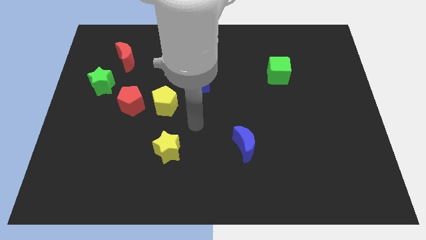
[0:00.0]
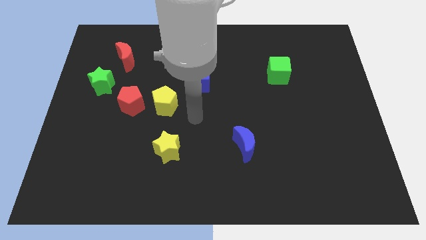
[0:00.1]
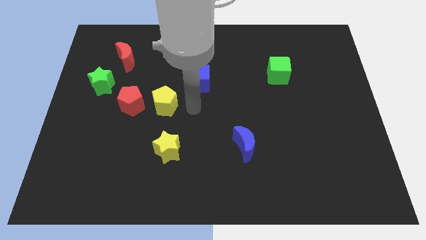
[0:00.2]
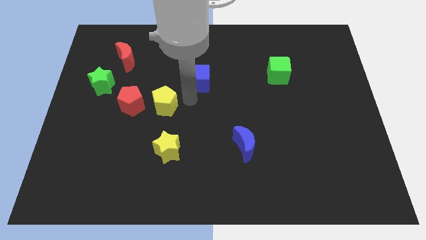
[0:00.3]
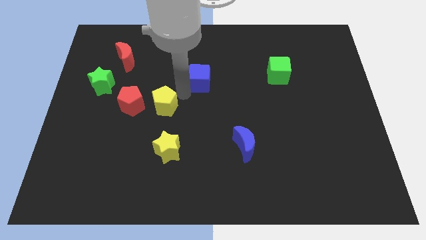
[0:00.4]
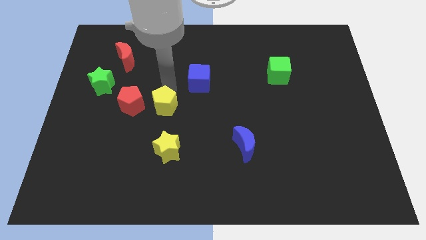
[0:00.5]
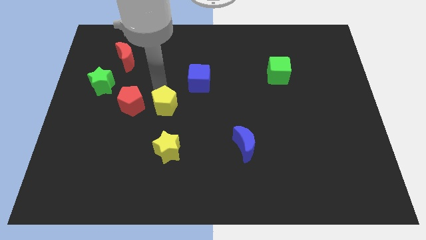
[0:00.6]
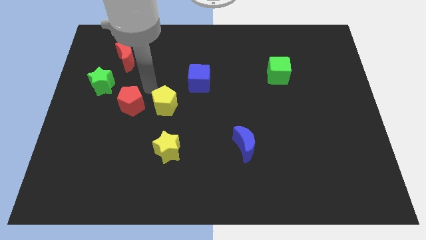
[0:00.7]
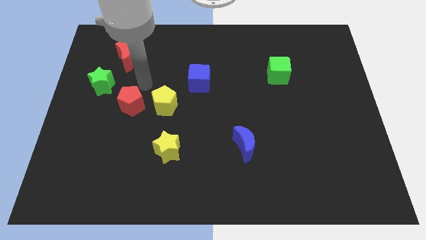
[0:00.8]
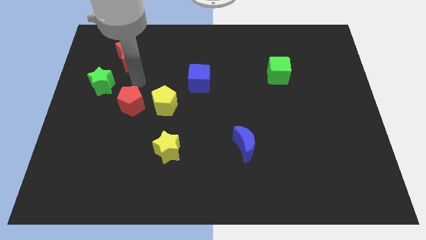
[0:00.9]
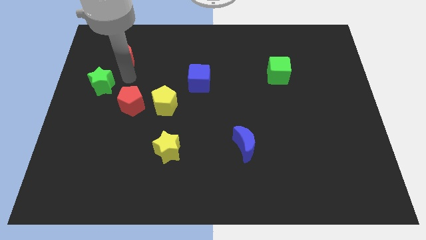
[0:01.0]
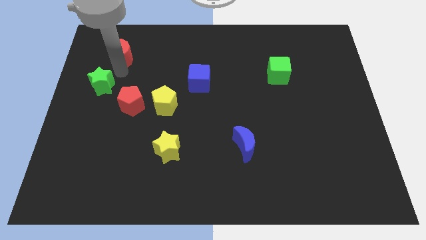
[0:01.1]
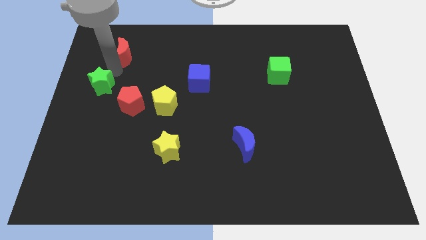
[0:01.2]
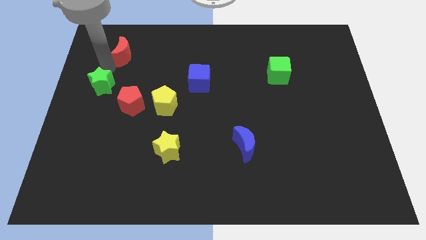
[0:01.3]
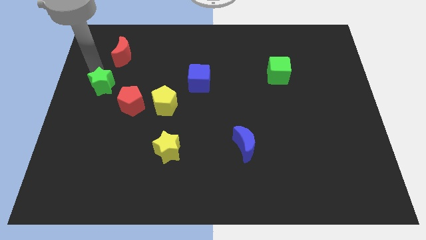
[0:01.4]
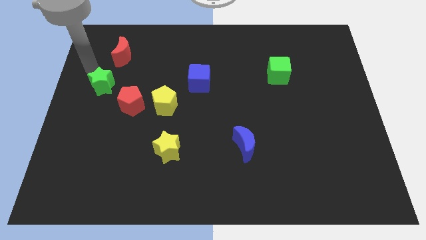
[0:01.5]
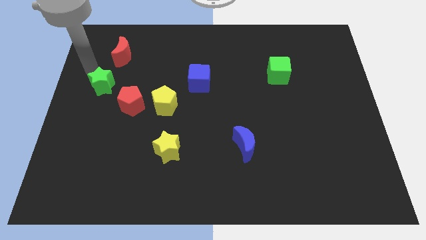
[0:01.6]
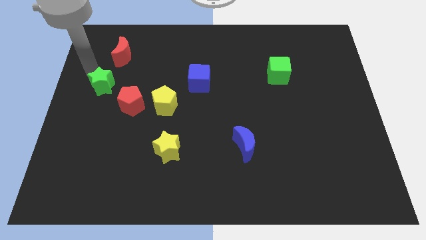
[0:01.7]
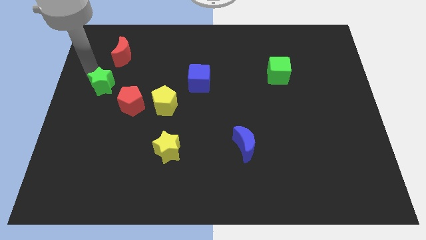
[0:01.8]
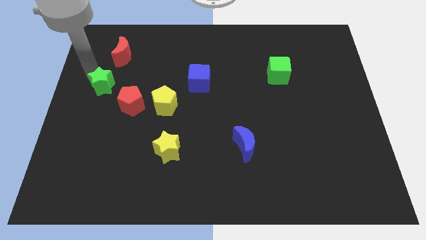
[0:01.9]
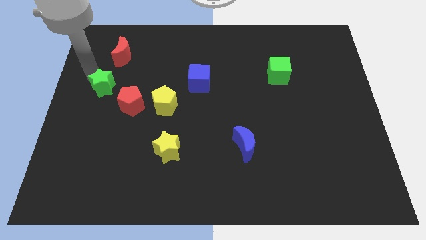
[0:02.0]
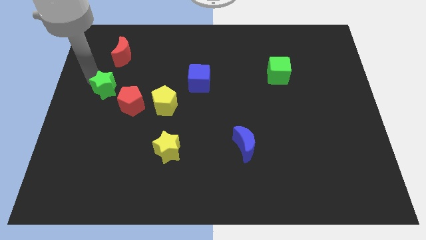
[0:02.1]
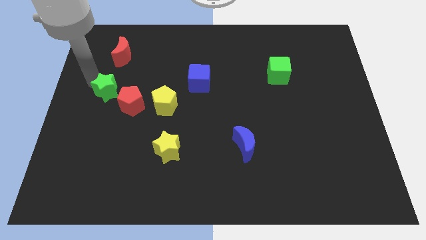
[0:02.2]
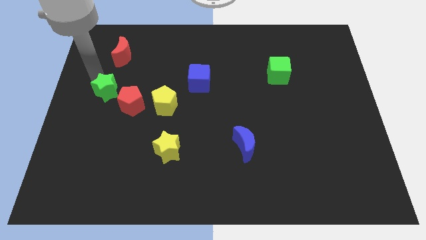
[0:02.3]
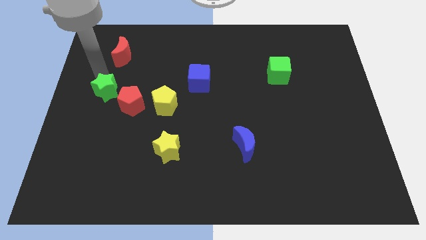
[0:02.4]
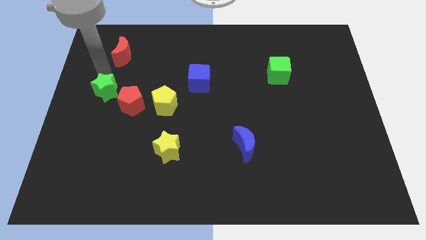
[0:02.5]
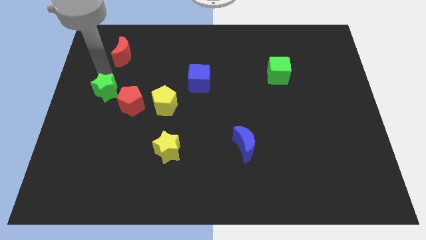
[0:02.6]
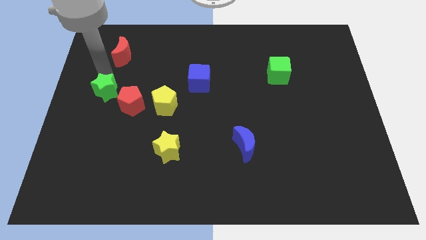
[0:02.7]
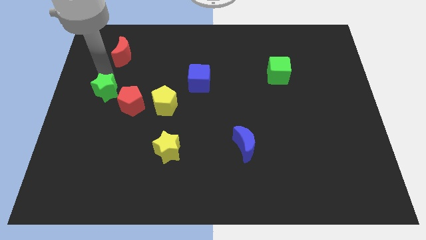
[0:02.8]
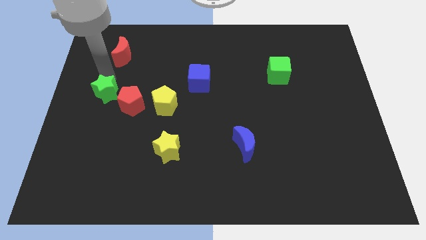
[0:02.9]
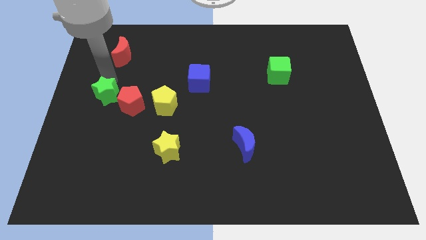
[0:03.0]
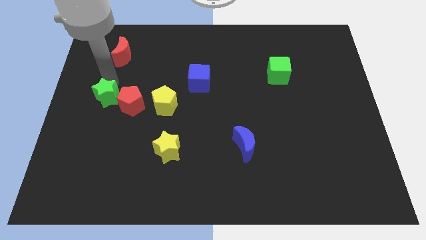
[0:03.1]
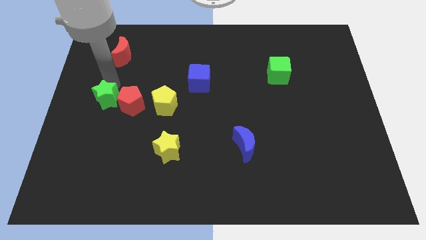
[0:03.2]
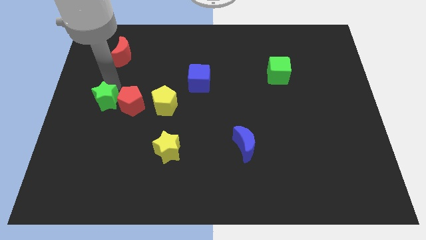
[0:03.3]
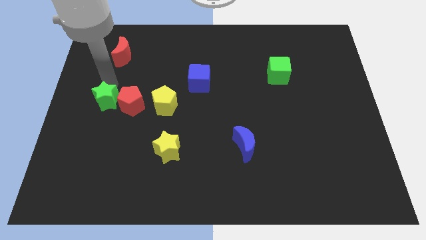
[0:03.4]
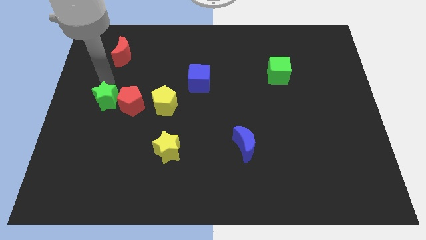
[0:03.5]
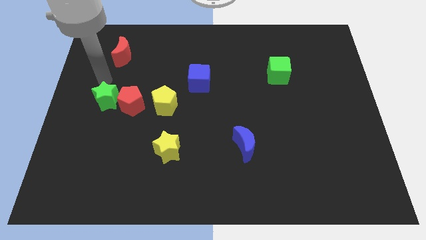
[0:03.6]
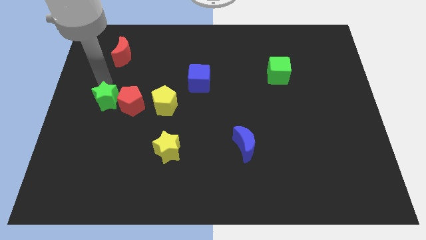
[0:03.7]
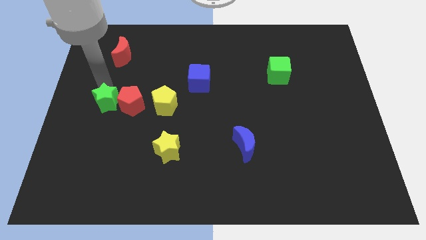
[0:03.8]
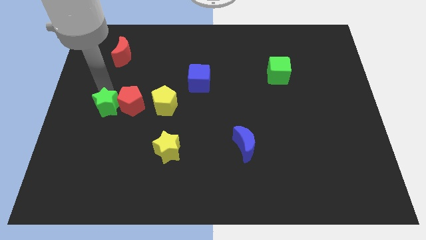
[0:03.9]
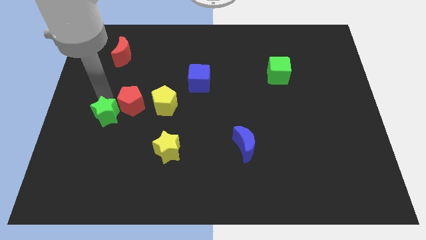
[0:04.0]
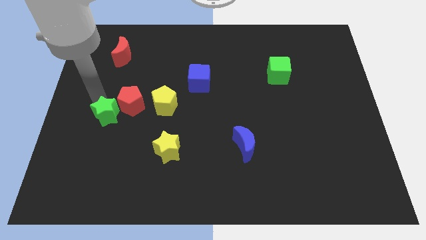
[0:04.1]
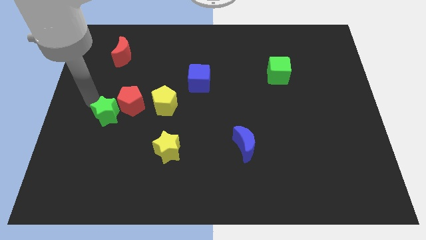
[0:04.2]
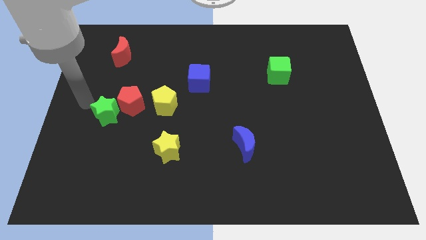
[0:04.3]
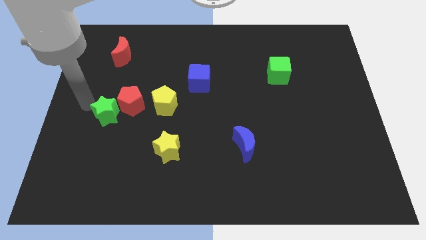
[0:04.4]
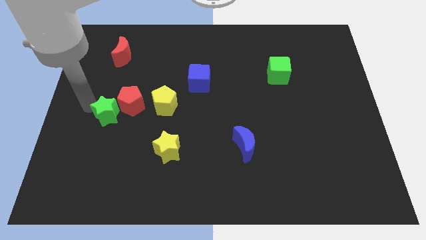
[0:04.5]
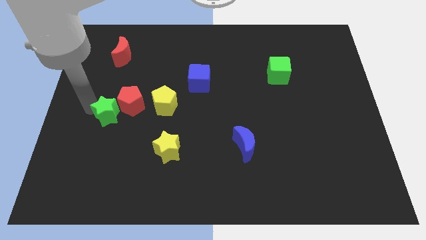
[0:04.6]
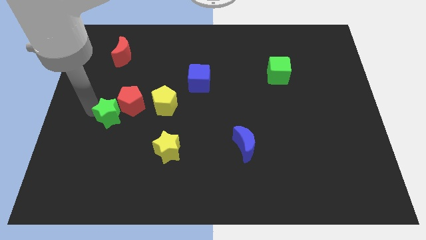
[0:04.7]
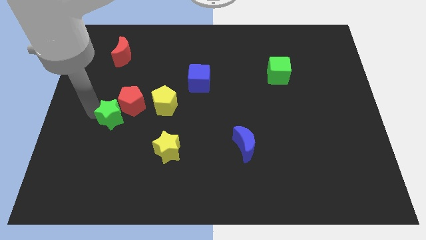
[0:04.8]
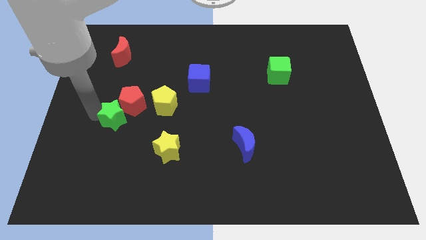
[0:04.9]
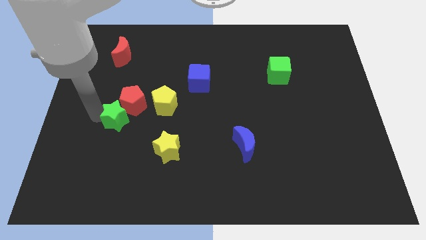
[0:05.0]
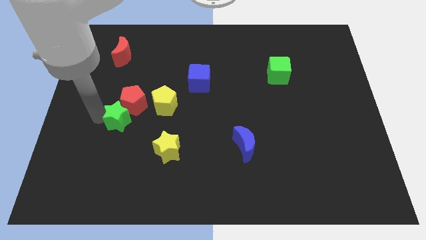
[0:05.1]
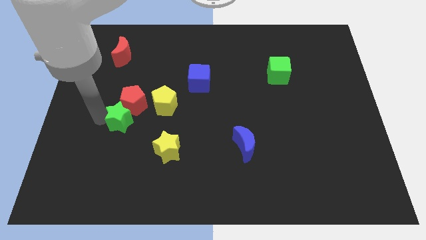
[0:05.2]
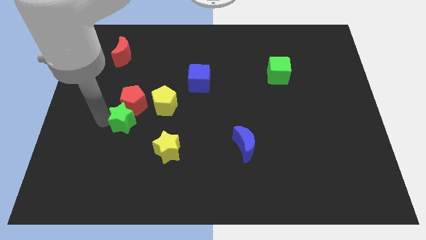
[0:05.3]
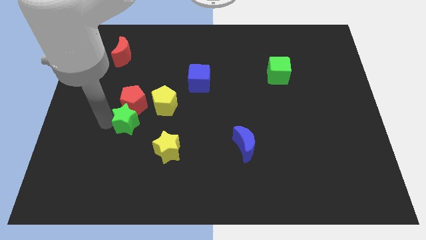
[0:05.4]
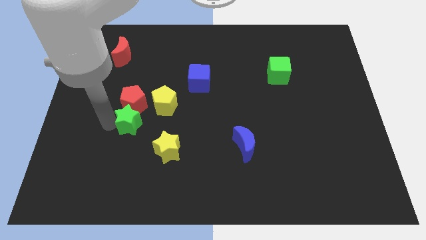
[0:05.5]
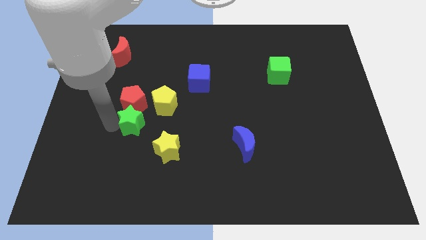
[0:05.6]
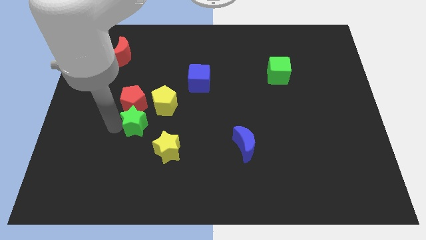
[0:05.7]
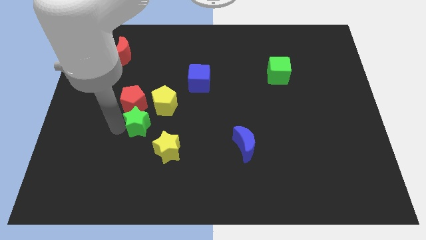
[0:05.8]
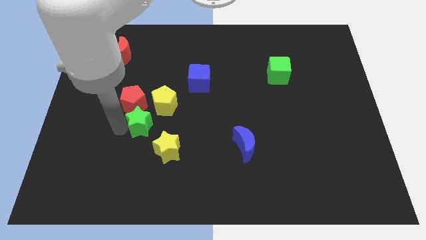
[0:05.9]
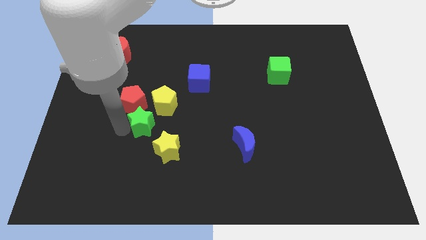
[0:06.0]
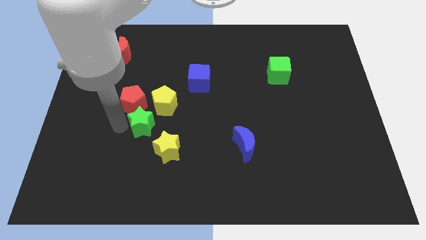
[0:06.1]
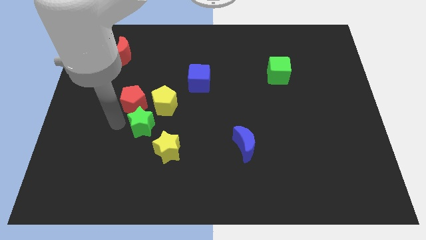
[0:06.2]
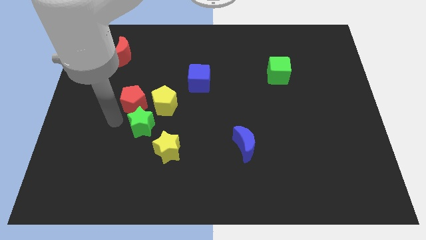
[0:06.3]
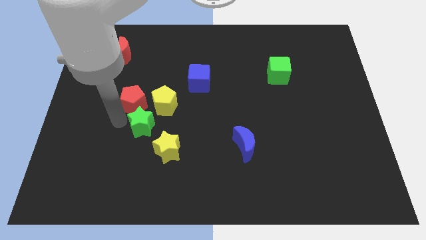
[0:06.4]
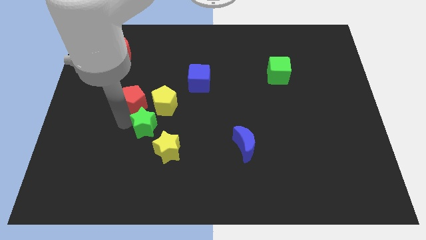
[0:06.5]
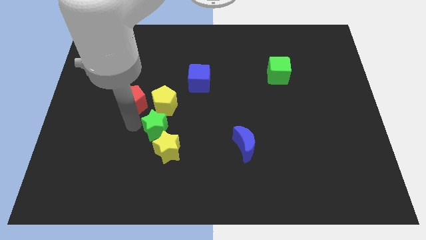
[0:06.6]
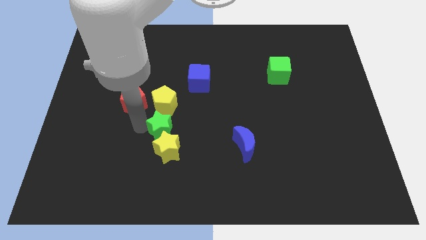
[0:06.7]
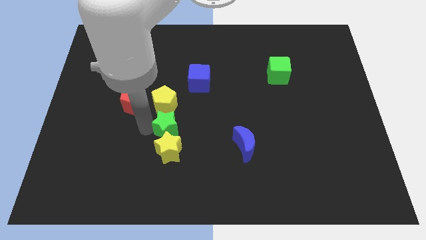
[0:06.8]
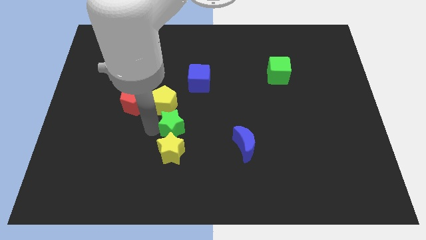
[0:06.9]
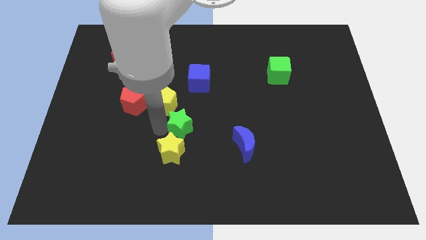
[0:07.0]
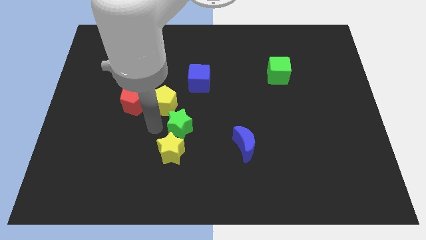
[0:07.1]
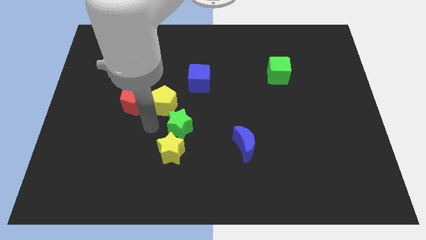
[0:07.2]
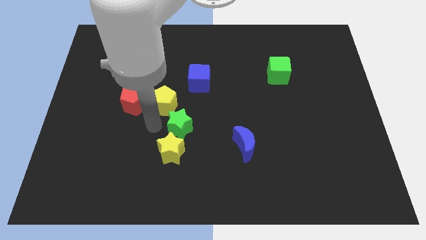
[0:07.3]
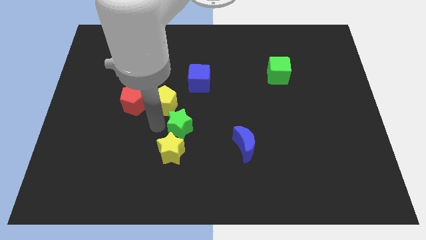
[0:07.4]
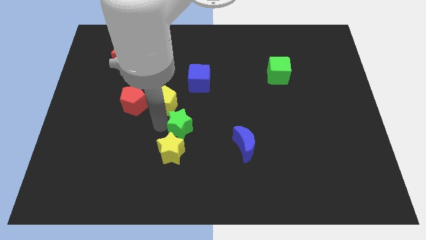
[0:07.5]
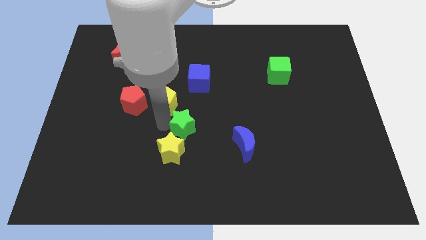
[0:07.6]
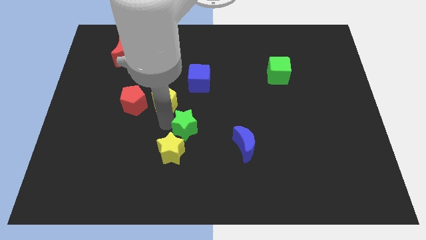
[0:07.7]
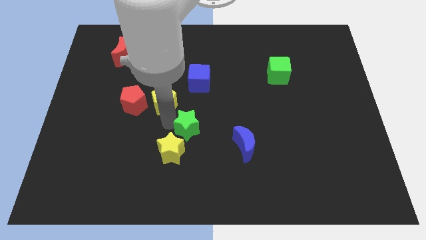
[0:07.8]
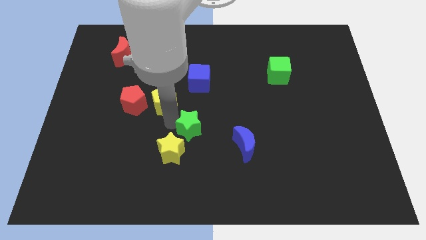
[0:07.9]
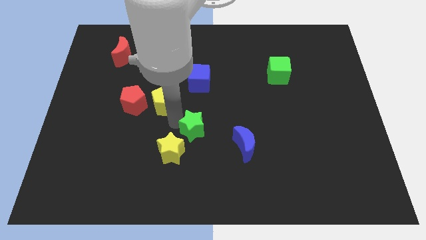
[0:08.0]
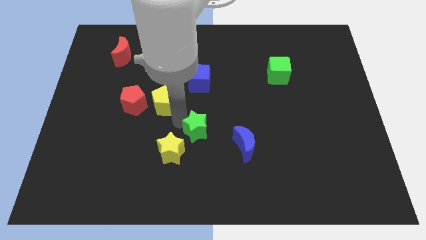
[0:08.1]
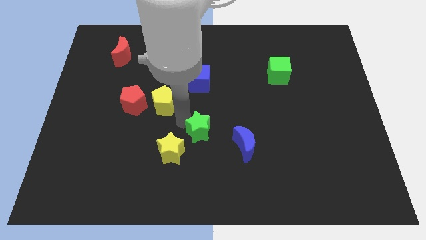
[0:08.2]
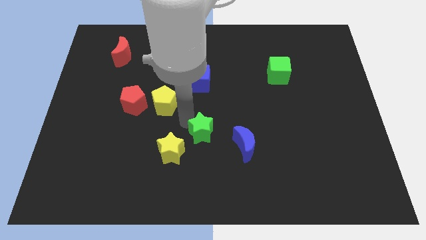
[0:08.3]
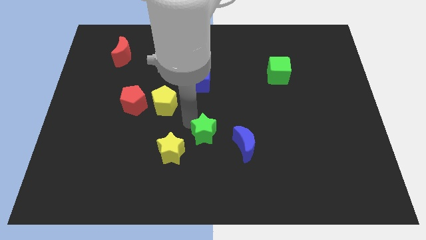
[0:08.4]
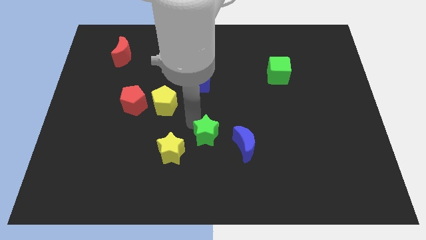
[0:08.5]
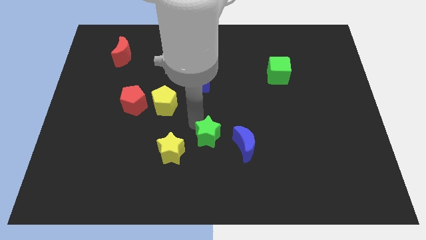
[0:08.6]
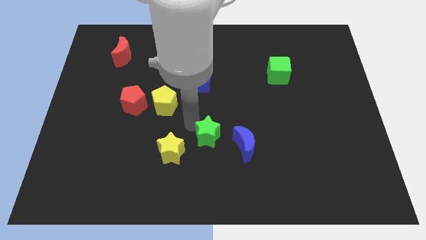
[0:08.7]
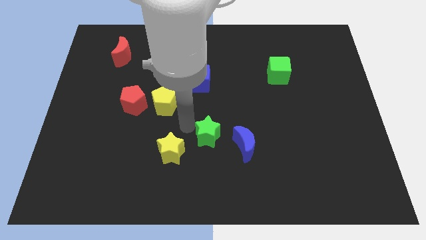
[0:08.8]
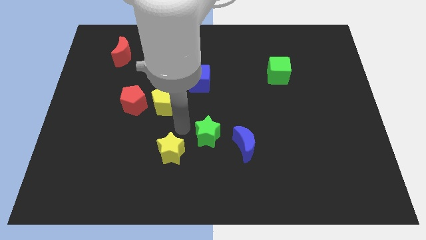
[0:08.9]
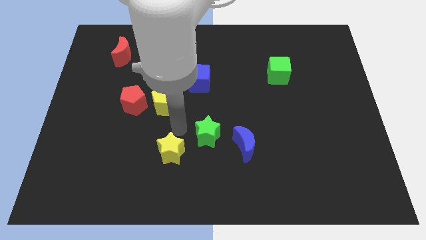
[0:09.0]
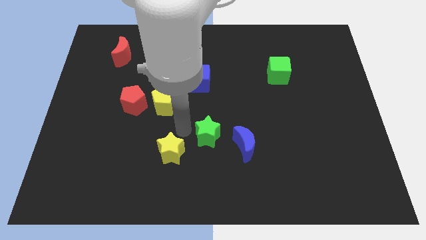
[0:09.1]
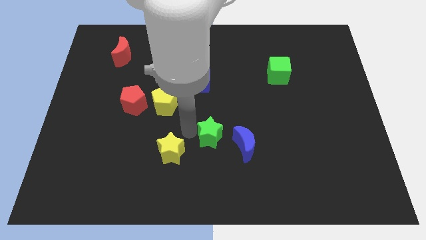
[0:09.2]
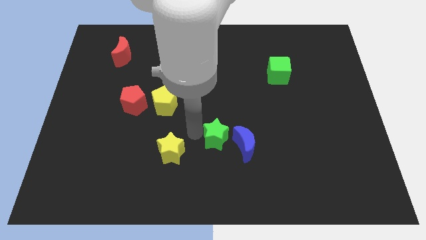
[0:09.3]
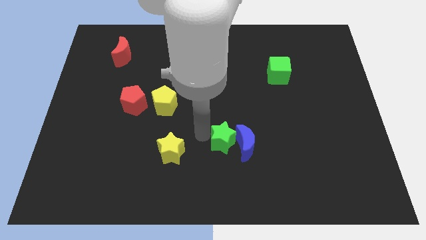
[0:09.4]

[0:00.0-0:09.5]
slide the green star close to the blue moon
